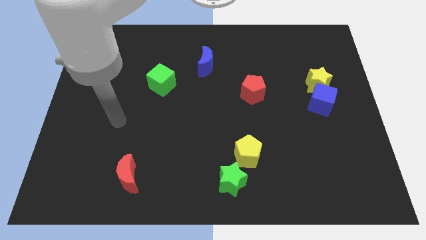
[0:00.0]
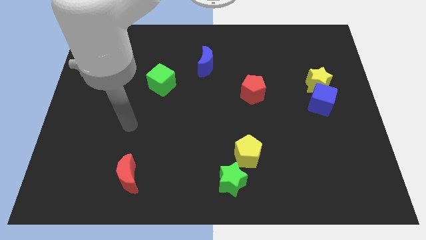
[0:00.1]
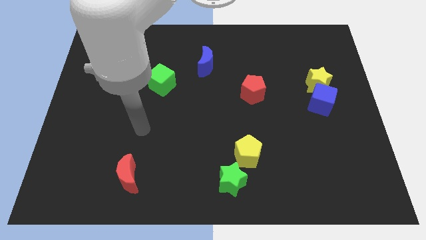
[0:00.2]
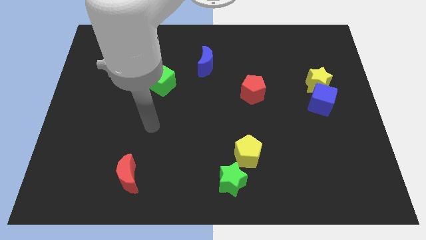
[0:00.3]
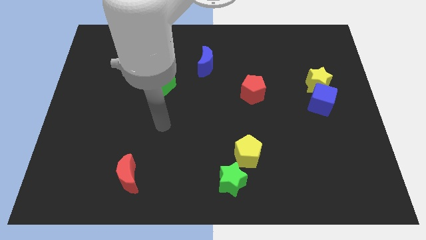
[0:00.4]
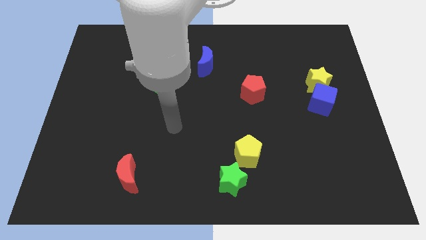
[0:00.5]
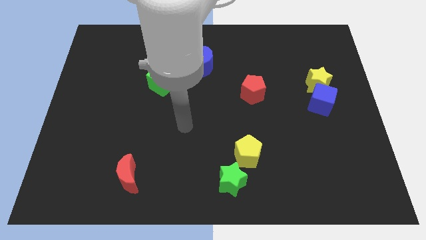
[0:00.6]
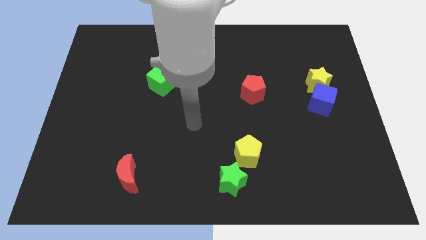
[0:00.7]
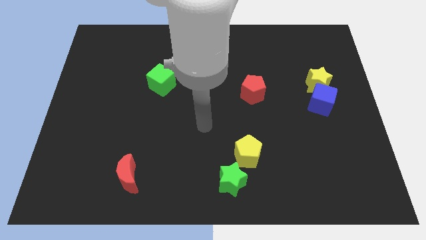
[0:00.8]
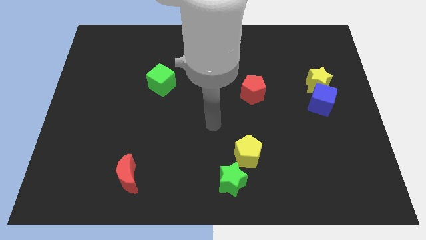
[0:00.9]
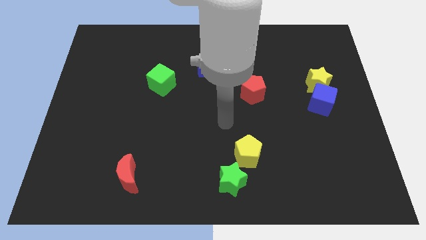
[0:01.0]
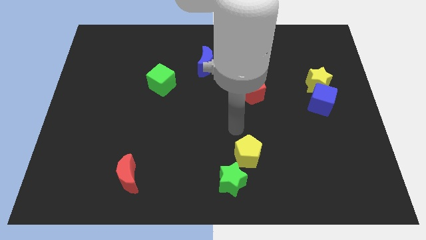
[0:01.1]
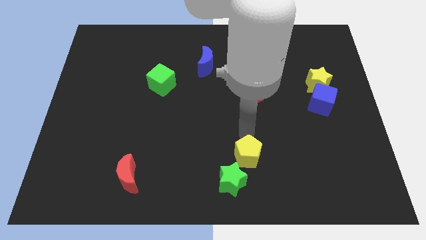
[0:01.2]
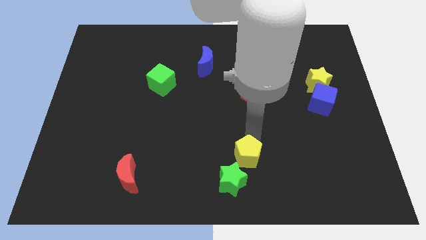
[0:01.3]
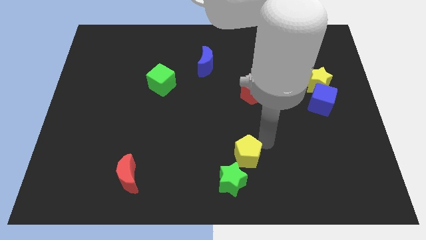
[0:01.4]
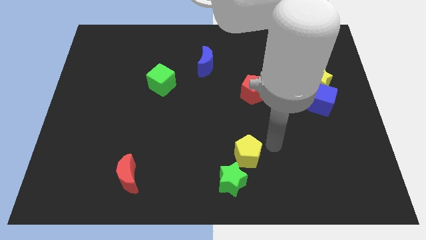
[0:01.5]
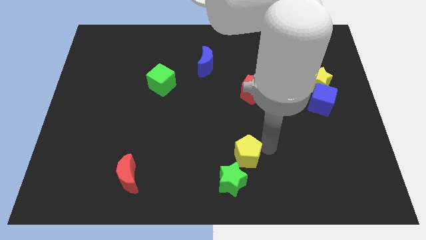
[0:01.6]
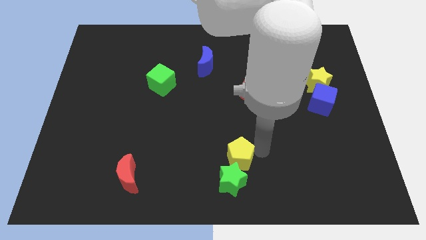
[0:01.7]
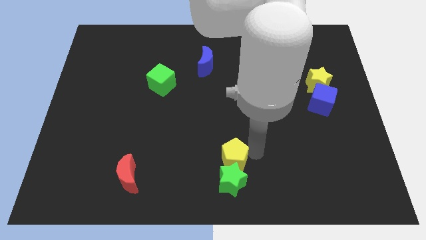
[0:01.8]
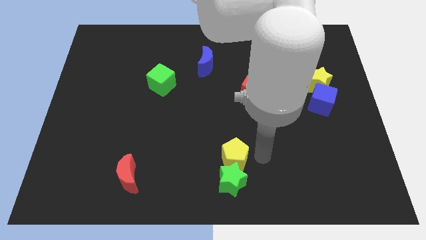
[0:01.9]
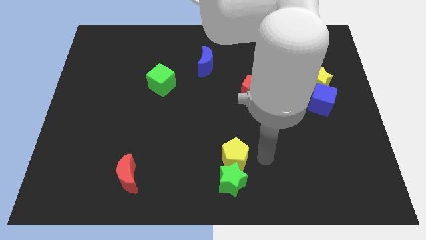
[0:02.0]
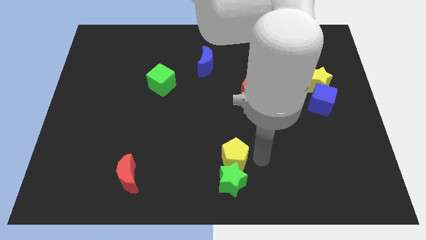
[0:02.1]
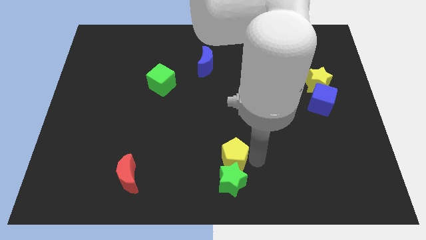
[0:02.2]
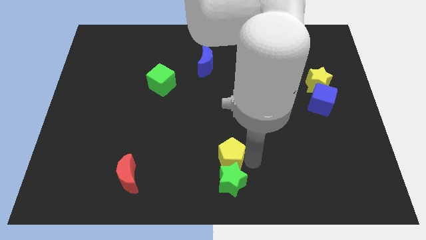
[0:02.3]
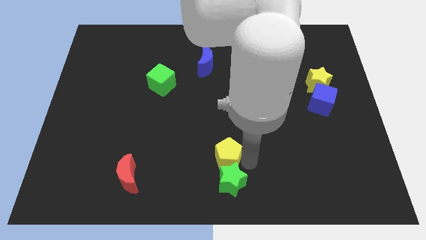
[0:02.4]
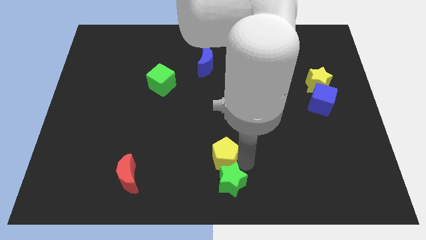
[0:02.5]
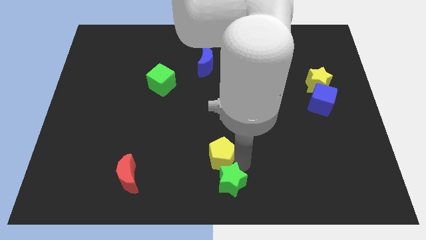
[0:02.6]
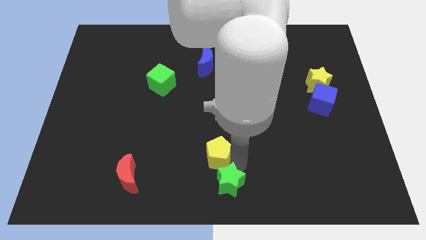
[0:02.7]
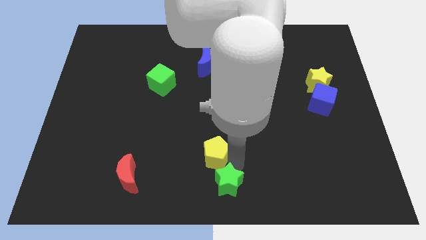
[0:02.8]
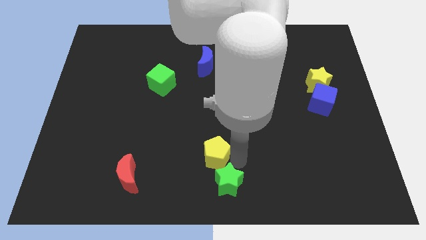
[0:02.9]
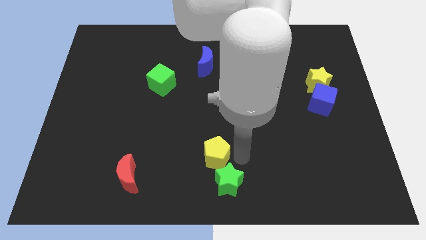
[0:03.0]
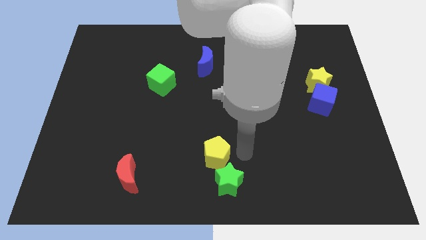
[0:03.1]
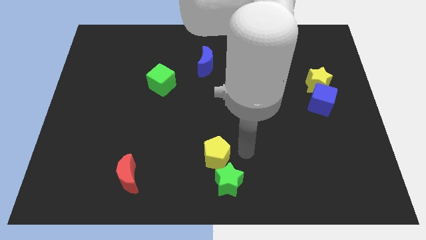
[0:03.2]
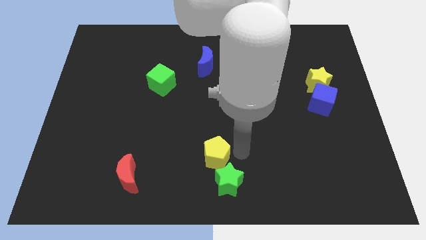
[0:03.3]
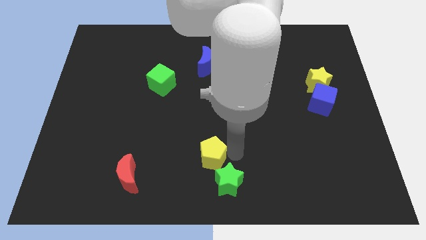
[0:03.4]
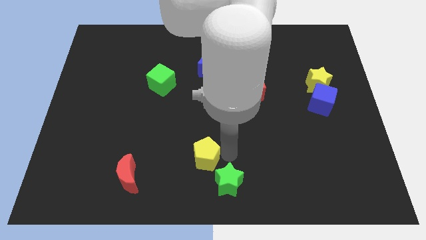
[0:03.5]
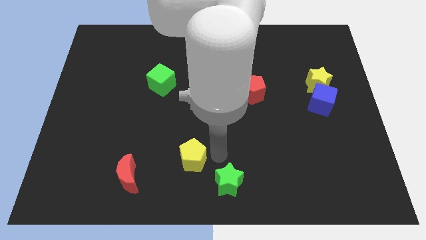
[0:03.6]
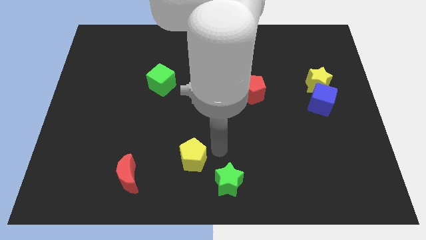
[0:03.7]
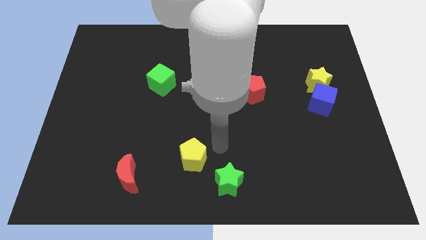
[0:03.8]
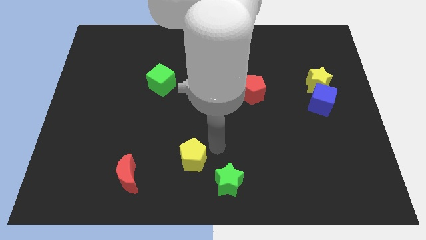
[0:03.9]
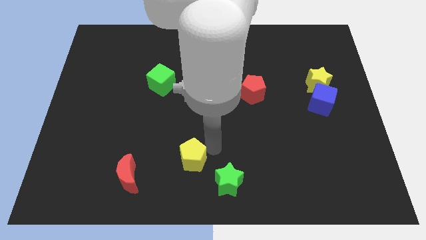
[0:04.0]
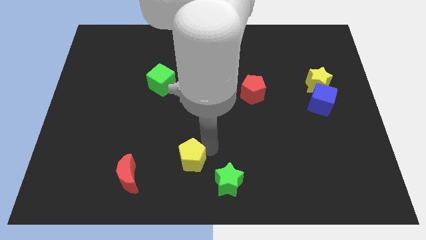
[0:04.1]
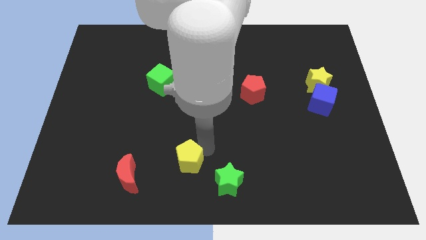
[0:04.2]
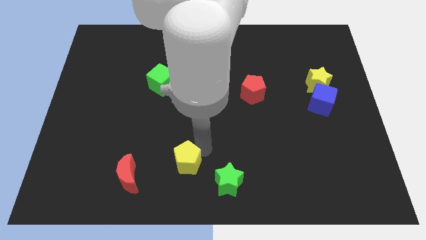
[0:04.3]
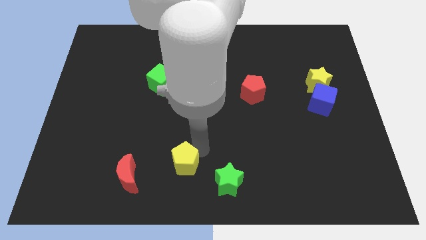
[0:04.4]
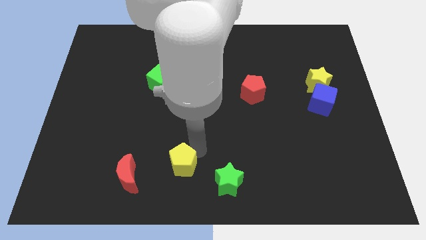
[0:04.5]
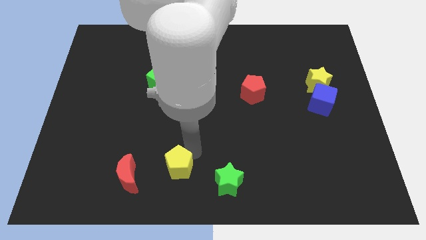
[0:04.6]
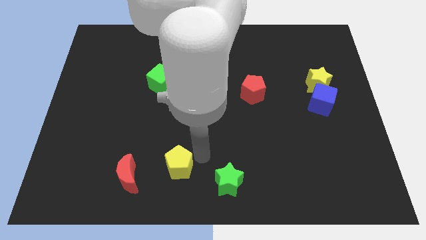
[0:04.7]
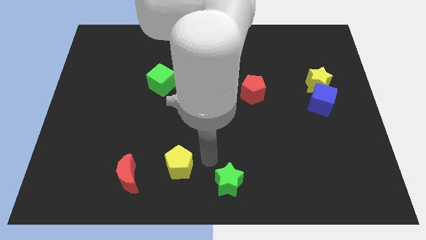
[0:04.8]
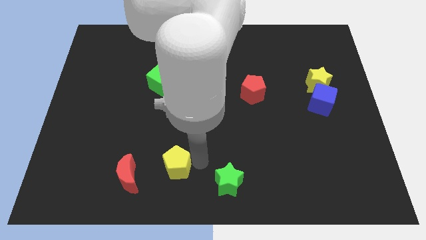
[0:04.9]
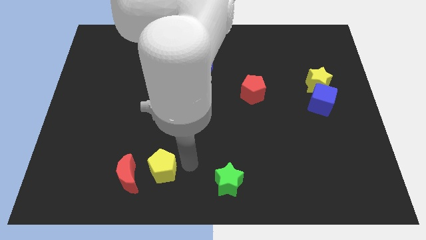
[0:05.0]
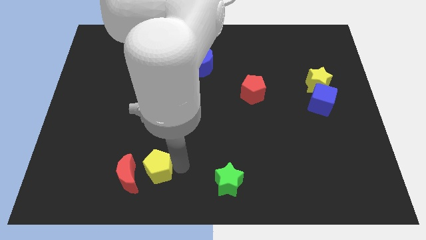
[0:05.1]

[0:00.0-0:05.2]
slide the yellow pentagon towards the red moon

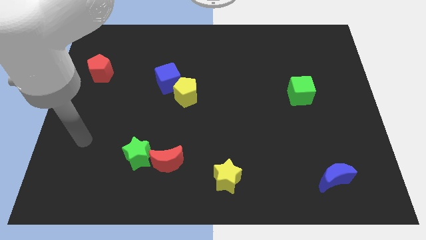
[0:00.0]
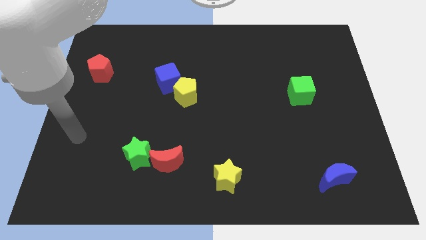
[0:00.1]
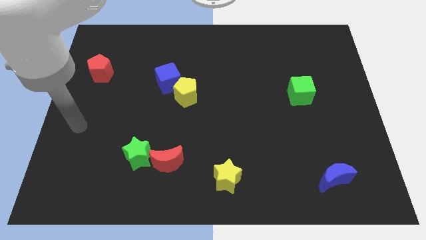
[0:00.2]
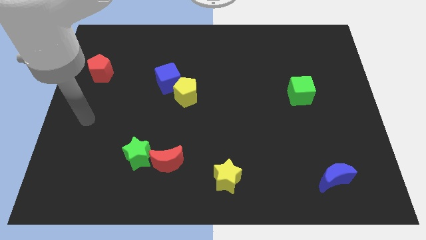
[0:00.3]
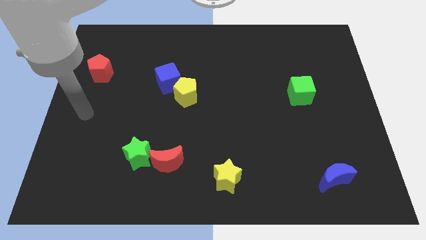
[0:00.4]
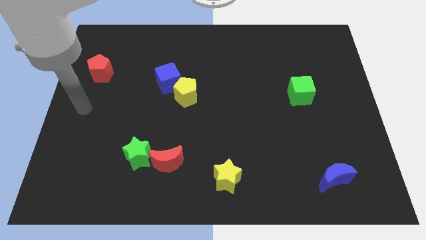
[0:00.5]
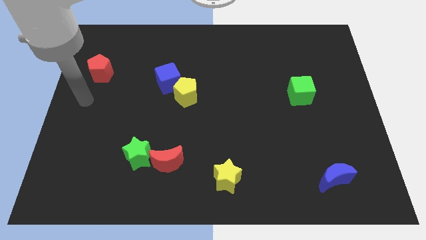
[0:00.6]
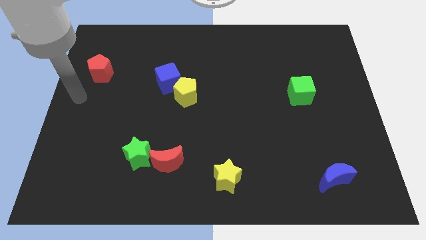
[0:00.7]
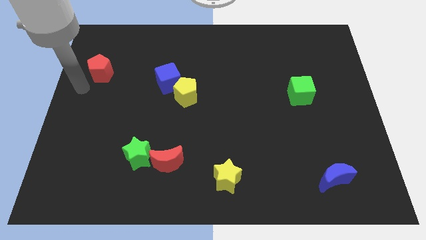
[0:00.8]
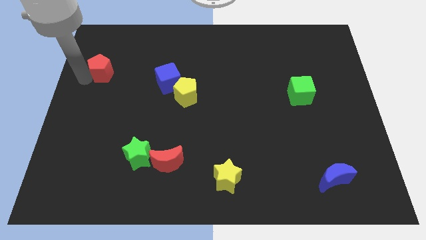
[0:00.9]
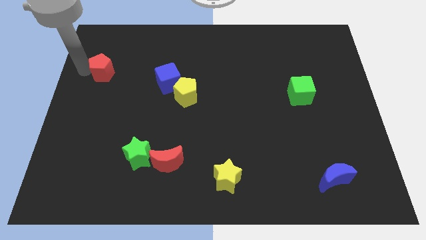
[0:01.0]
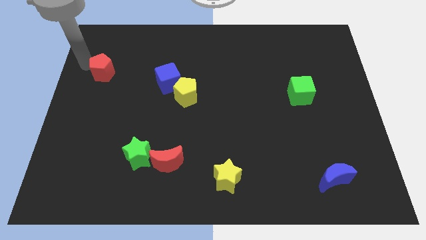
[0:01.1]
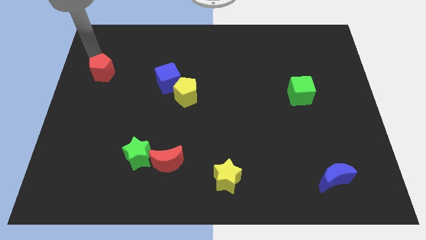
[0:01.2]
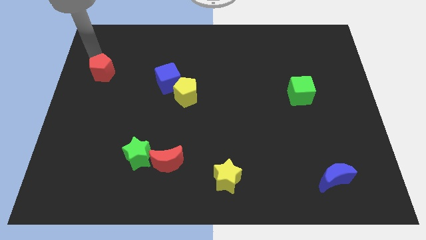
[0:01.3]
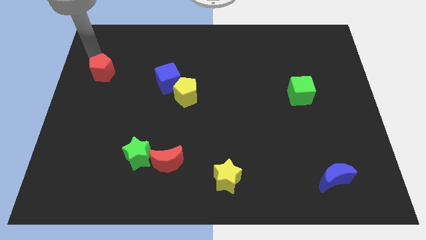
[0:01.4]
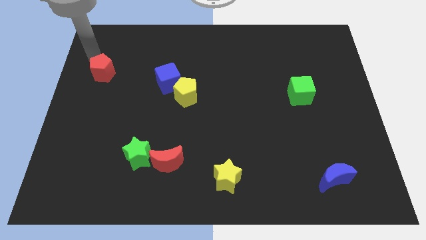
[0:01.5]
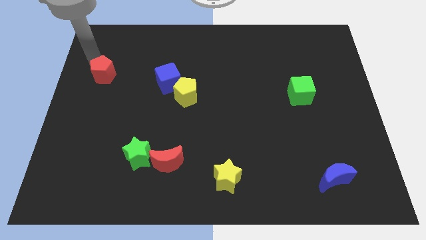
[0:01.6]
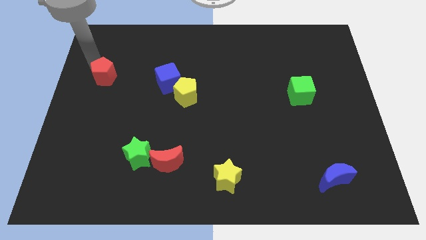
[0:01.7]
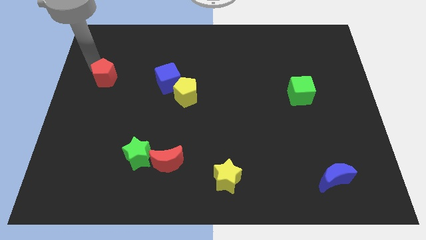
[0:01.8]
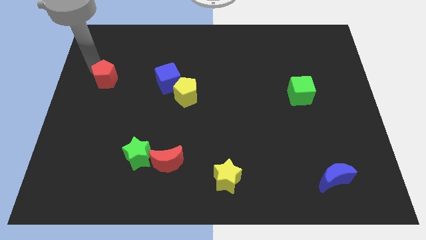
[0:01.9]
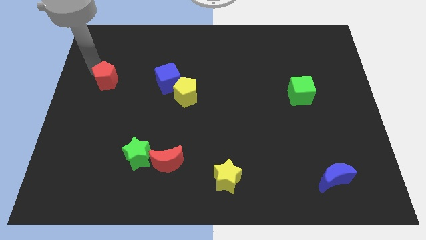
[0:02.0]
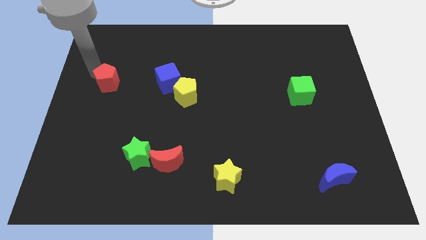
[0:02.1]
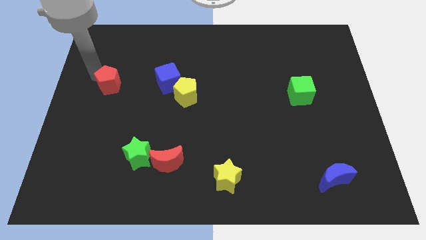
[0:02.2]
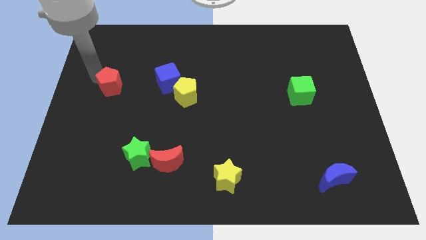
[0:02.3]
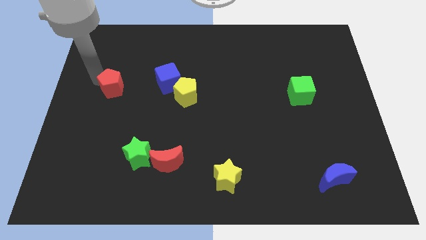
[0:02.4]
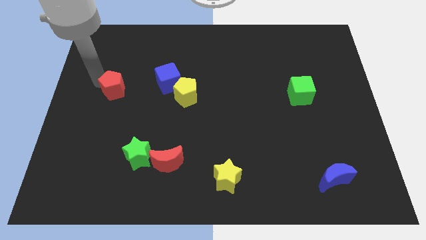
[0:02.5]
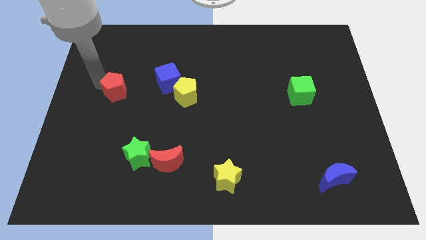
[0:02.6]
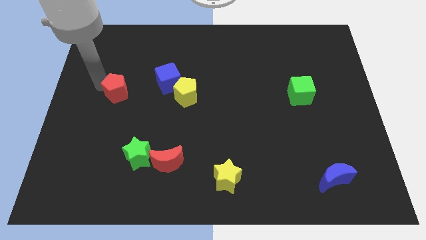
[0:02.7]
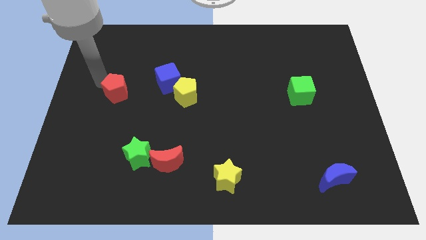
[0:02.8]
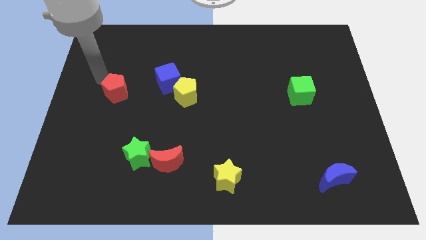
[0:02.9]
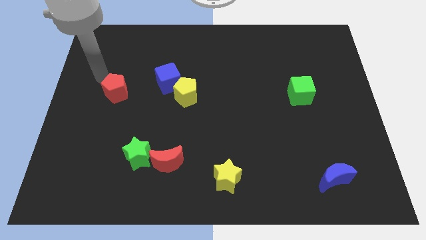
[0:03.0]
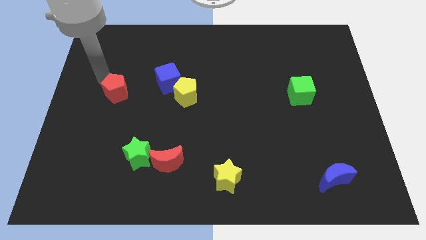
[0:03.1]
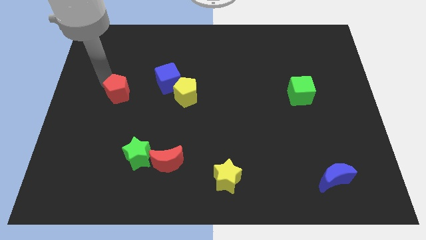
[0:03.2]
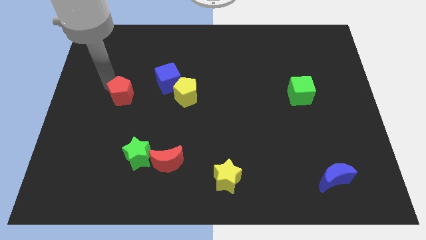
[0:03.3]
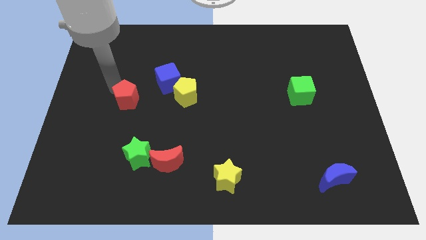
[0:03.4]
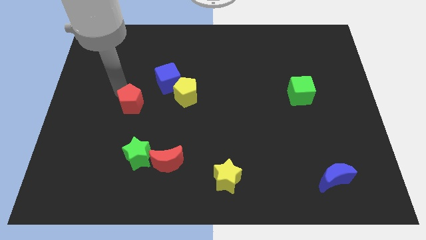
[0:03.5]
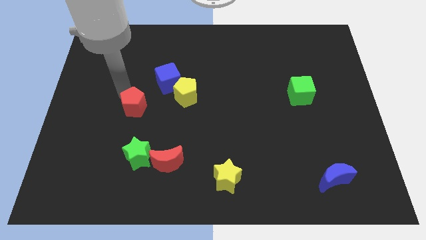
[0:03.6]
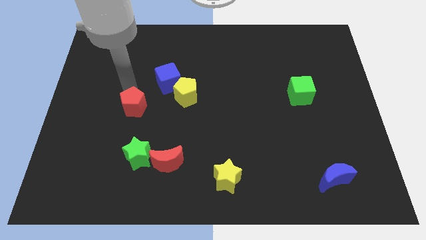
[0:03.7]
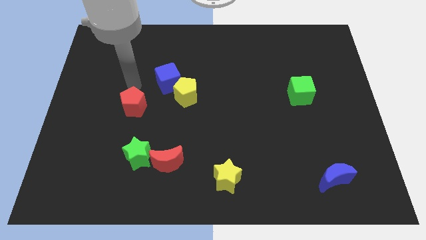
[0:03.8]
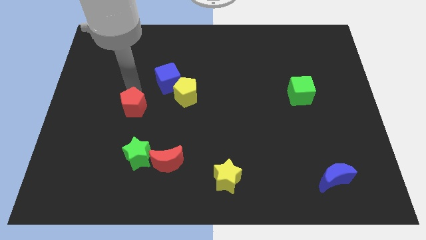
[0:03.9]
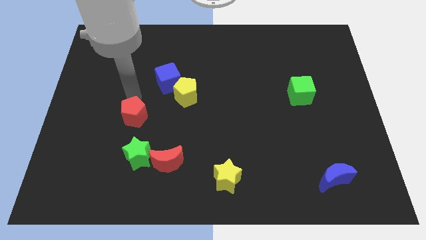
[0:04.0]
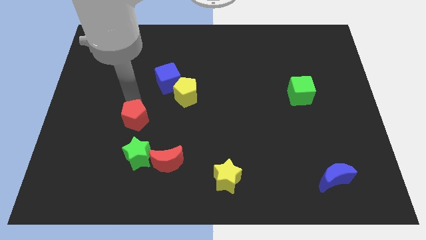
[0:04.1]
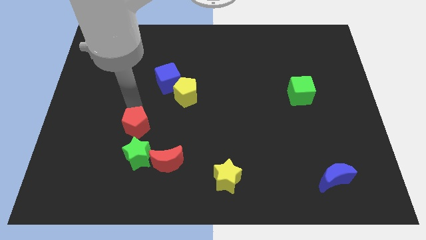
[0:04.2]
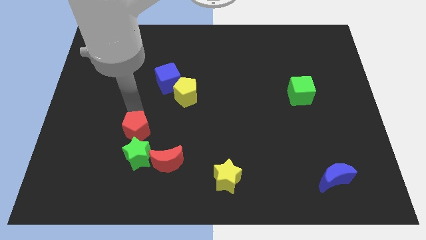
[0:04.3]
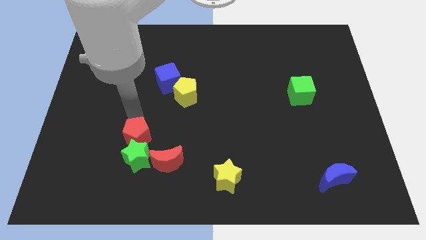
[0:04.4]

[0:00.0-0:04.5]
move the red pentagon next to the green star
